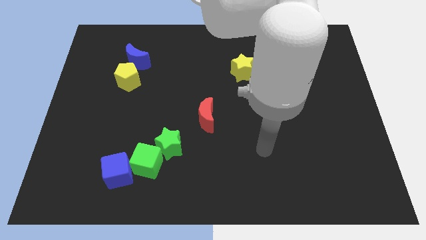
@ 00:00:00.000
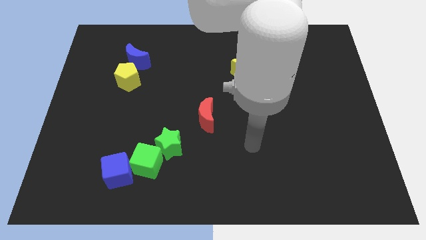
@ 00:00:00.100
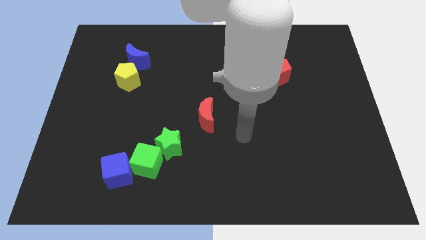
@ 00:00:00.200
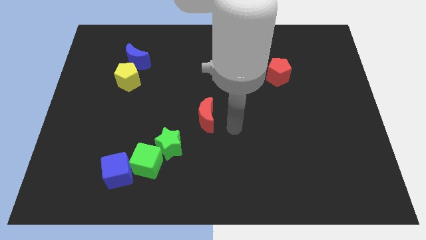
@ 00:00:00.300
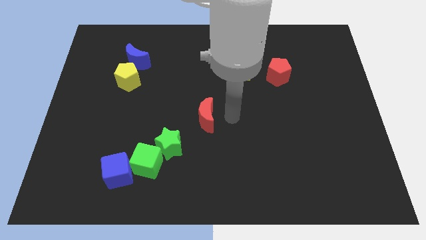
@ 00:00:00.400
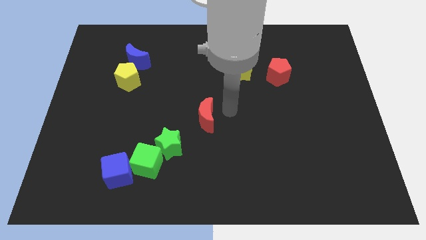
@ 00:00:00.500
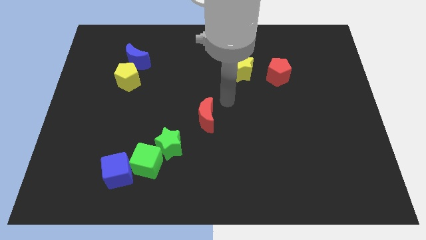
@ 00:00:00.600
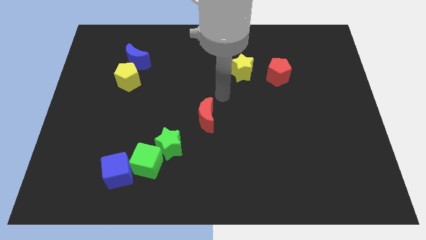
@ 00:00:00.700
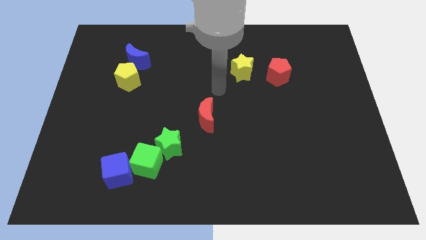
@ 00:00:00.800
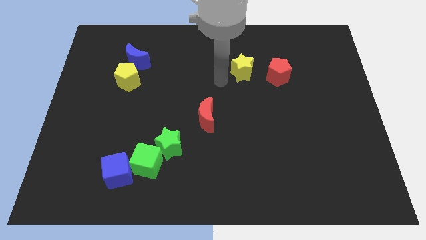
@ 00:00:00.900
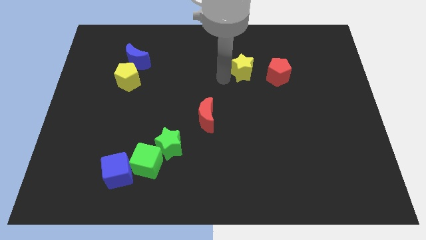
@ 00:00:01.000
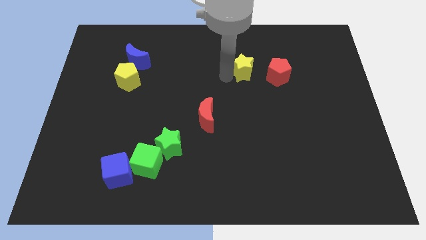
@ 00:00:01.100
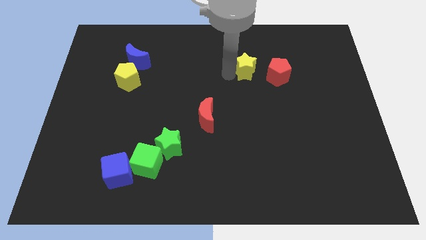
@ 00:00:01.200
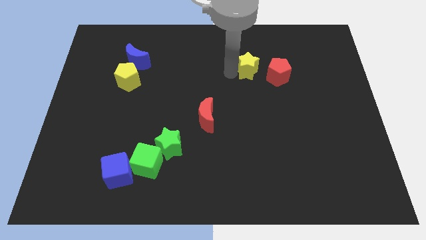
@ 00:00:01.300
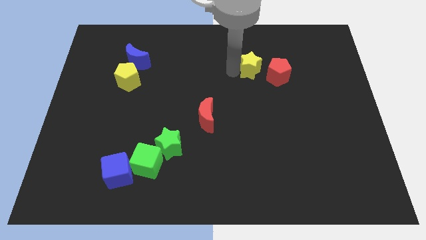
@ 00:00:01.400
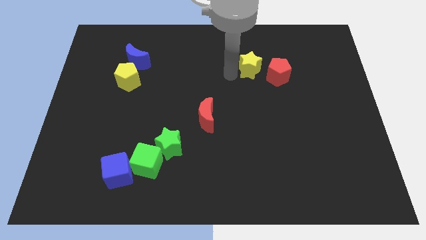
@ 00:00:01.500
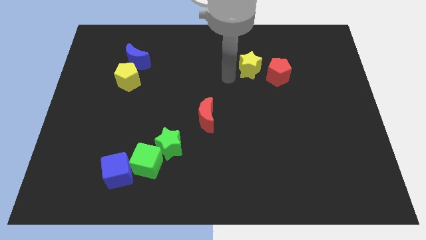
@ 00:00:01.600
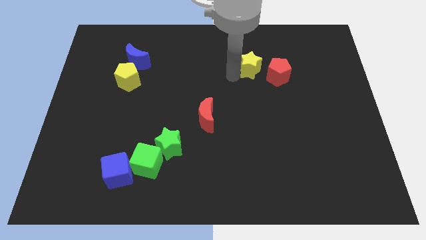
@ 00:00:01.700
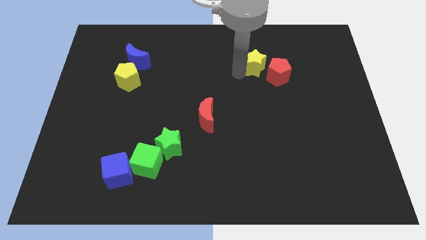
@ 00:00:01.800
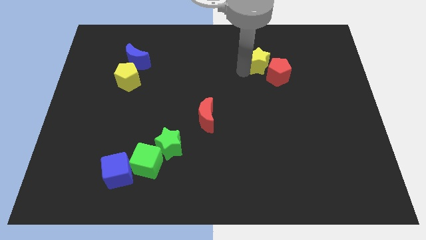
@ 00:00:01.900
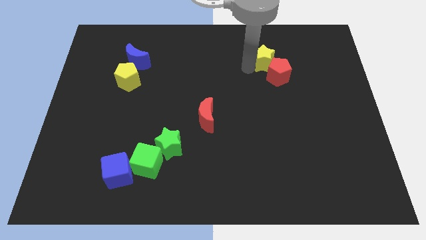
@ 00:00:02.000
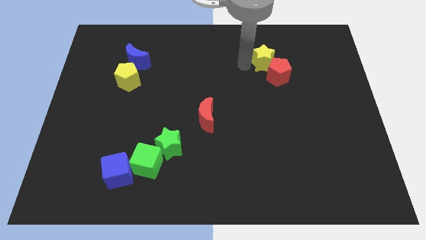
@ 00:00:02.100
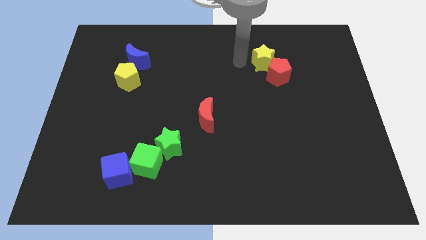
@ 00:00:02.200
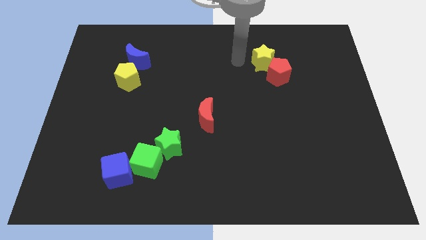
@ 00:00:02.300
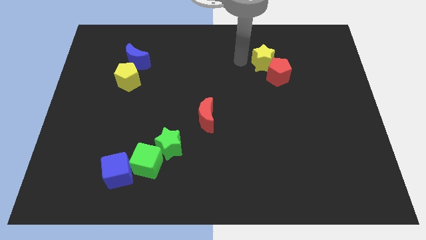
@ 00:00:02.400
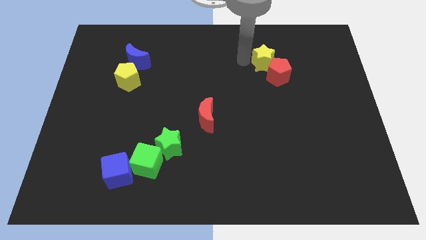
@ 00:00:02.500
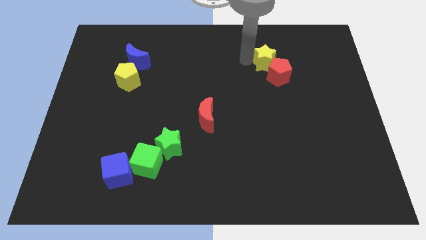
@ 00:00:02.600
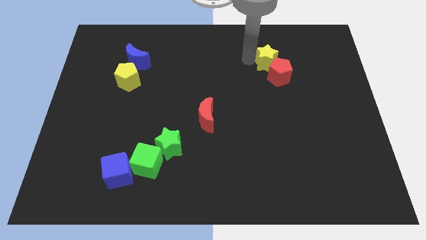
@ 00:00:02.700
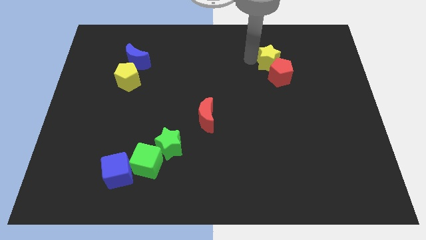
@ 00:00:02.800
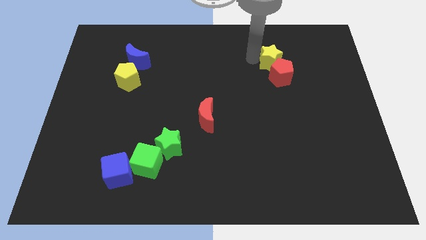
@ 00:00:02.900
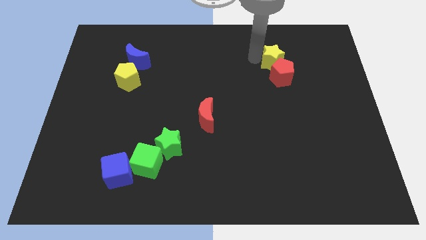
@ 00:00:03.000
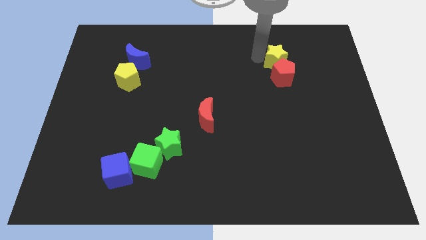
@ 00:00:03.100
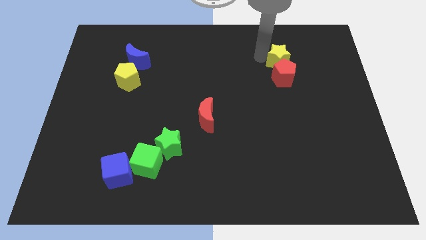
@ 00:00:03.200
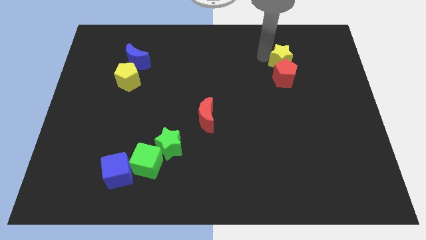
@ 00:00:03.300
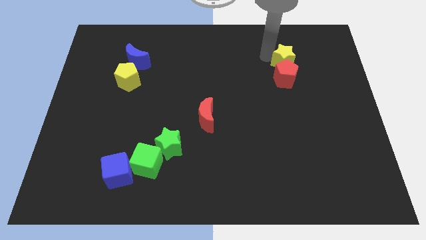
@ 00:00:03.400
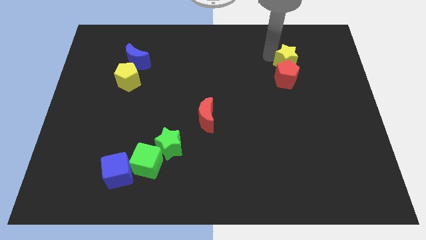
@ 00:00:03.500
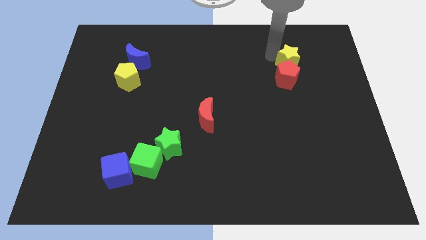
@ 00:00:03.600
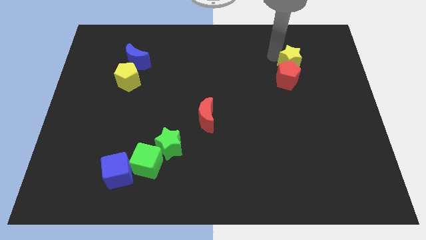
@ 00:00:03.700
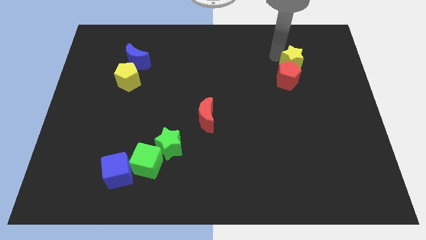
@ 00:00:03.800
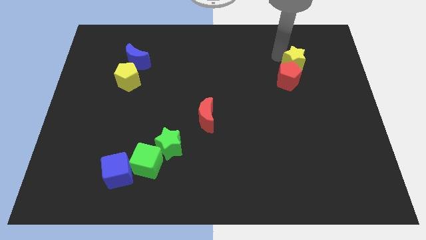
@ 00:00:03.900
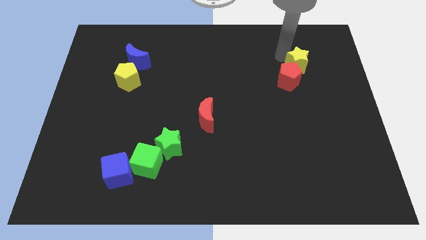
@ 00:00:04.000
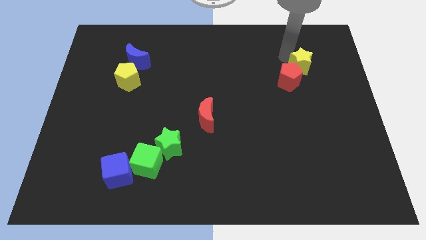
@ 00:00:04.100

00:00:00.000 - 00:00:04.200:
put the yellow star to the right of the red pentagon

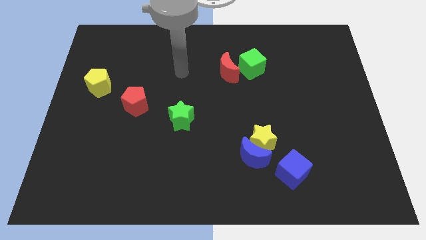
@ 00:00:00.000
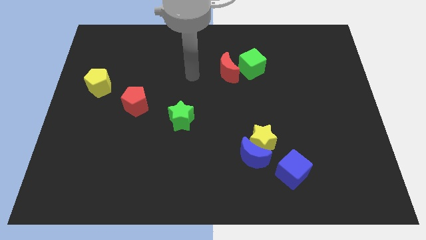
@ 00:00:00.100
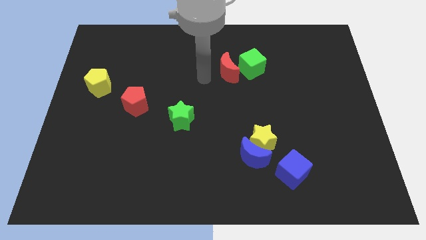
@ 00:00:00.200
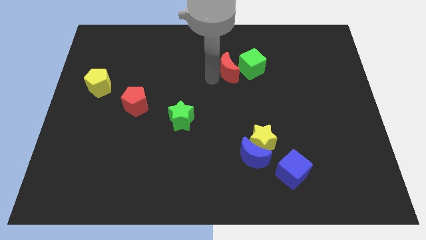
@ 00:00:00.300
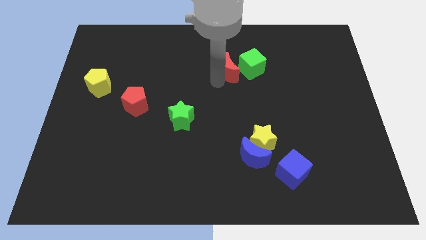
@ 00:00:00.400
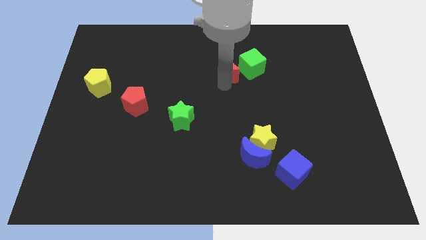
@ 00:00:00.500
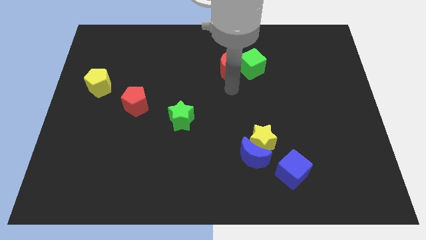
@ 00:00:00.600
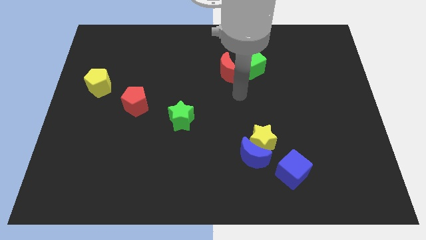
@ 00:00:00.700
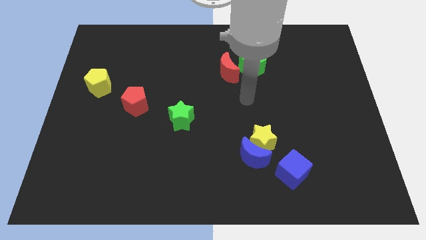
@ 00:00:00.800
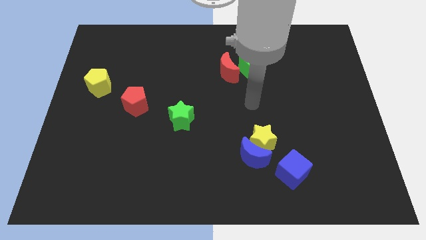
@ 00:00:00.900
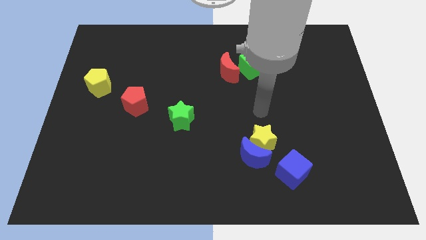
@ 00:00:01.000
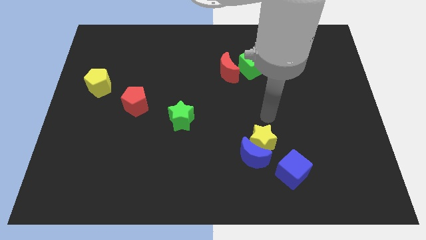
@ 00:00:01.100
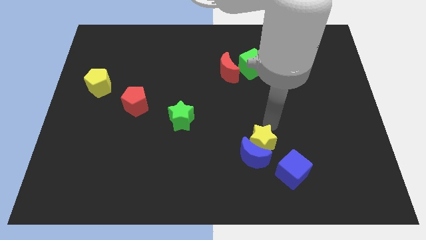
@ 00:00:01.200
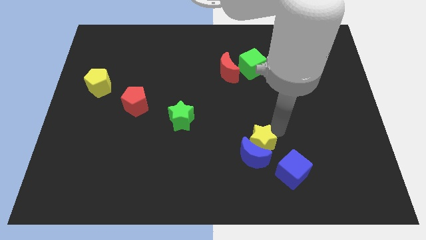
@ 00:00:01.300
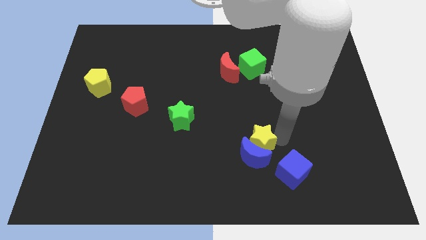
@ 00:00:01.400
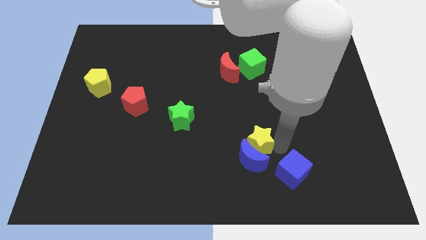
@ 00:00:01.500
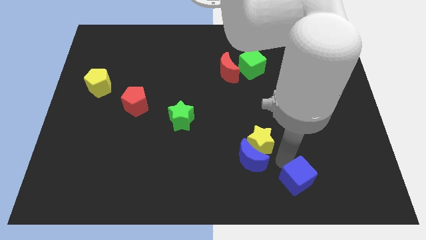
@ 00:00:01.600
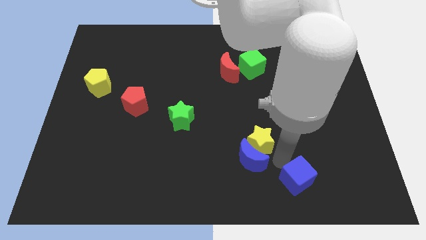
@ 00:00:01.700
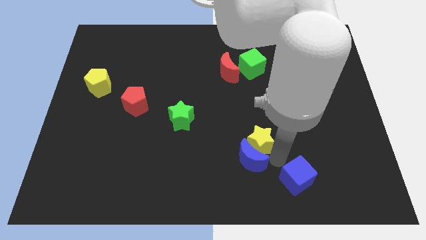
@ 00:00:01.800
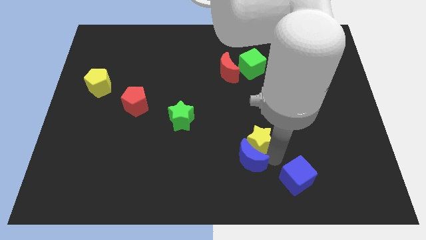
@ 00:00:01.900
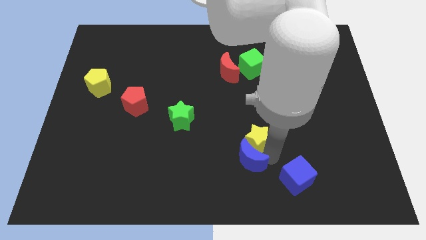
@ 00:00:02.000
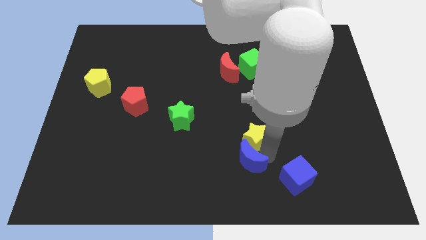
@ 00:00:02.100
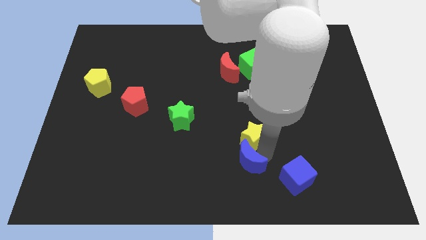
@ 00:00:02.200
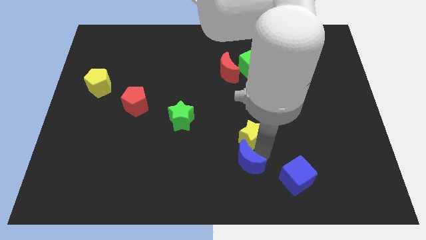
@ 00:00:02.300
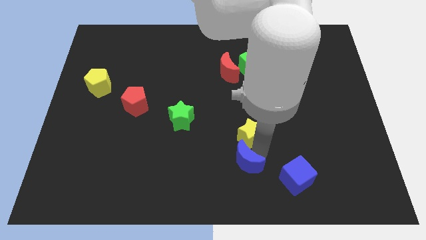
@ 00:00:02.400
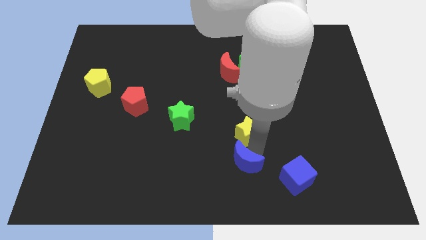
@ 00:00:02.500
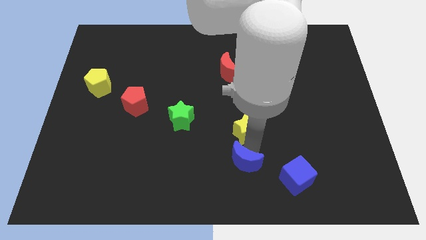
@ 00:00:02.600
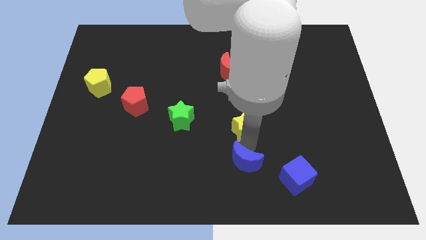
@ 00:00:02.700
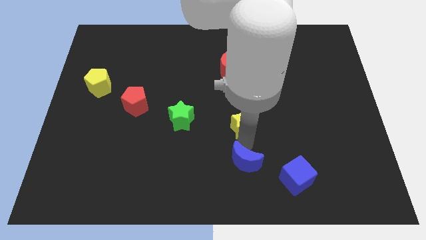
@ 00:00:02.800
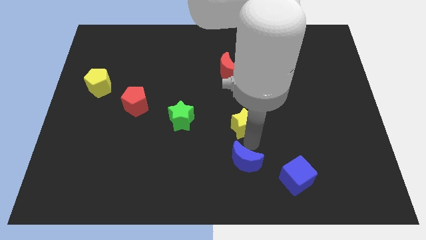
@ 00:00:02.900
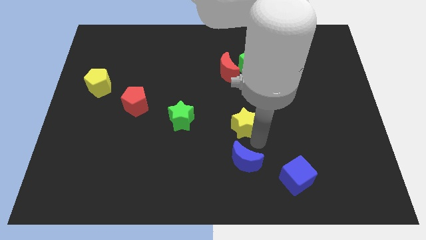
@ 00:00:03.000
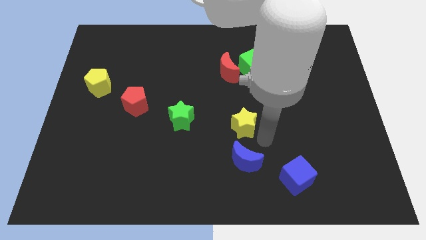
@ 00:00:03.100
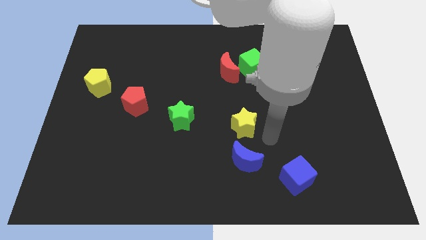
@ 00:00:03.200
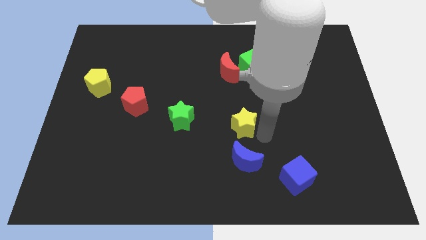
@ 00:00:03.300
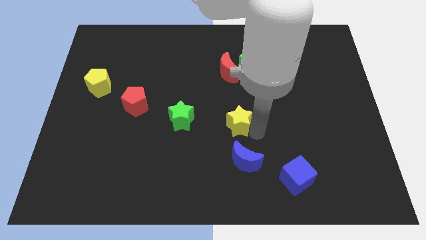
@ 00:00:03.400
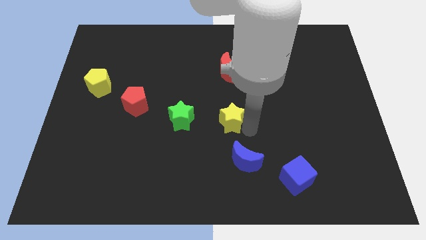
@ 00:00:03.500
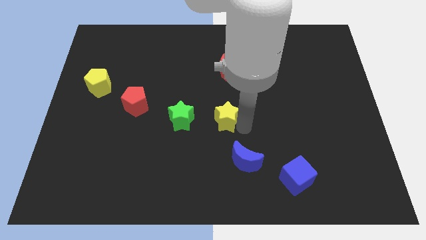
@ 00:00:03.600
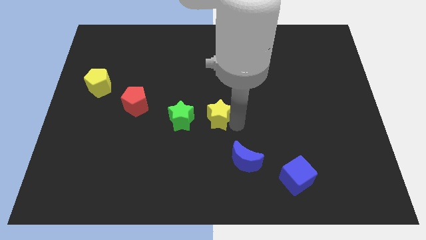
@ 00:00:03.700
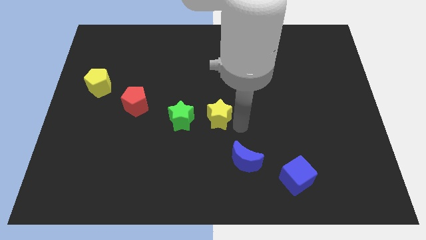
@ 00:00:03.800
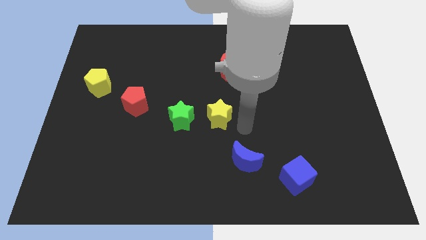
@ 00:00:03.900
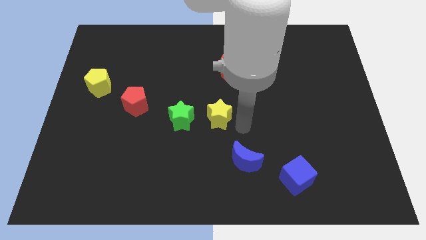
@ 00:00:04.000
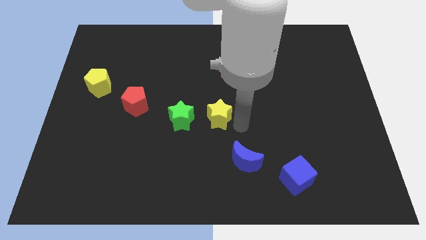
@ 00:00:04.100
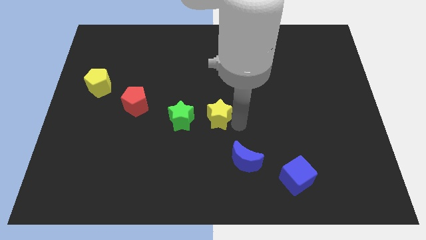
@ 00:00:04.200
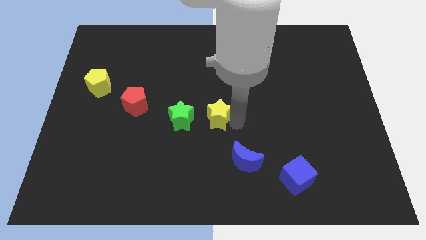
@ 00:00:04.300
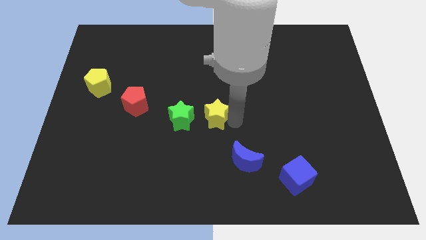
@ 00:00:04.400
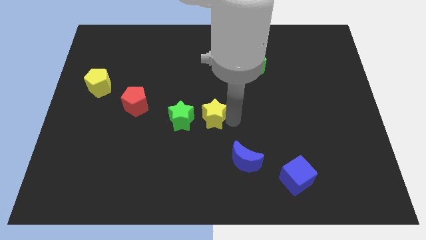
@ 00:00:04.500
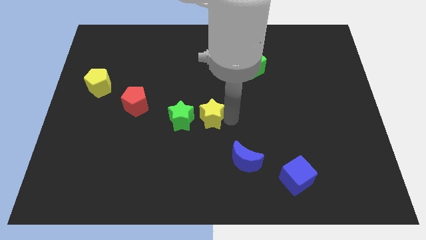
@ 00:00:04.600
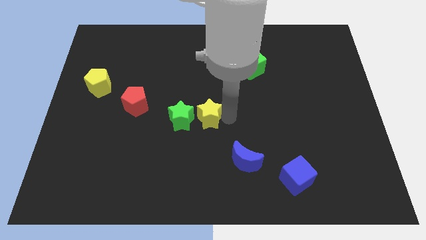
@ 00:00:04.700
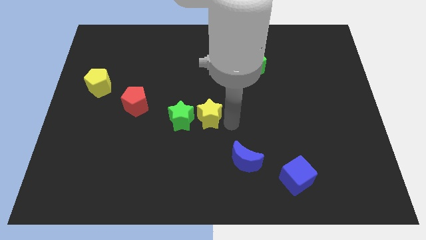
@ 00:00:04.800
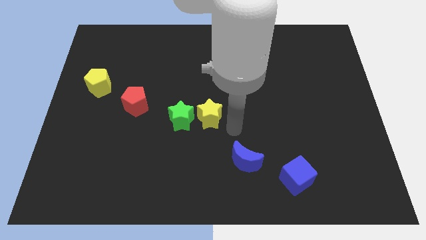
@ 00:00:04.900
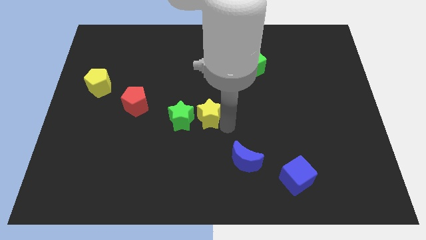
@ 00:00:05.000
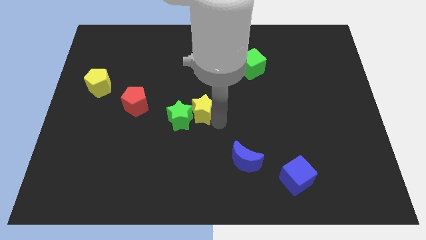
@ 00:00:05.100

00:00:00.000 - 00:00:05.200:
slide the yellow star just right of the red pentagon
